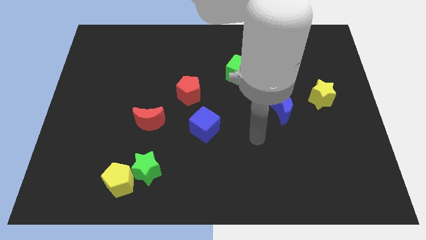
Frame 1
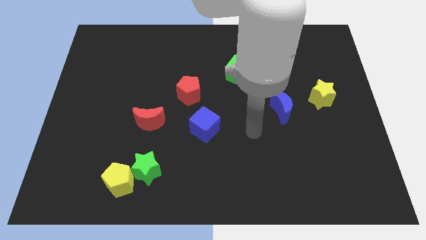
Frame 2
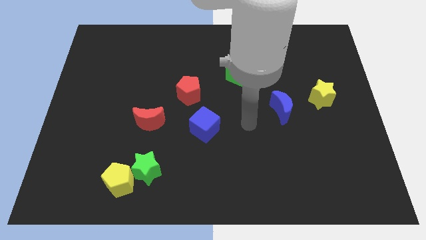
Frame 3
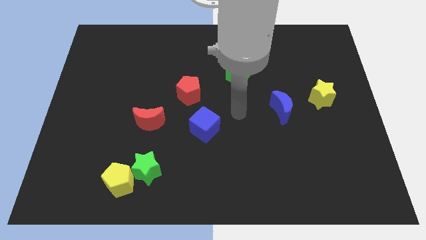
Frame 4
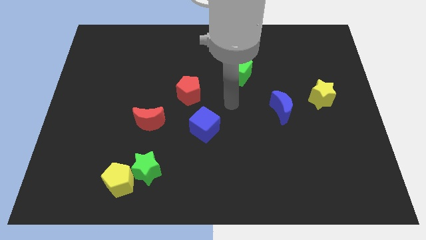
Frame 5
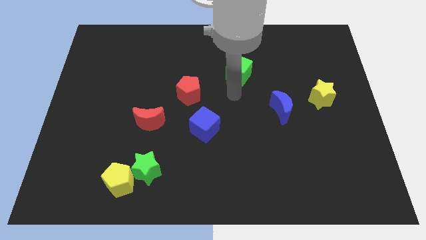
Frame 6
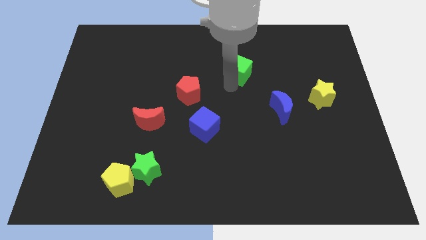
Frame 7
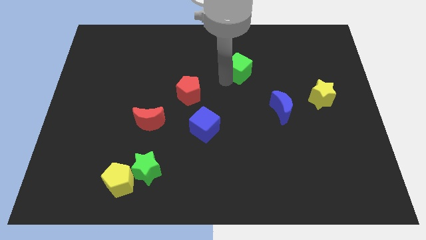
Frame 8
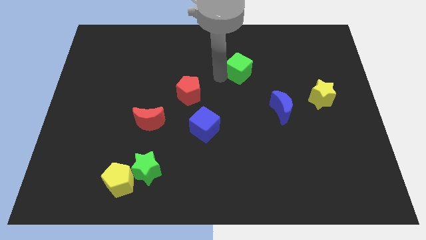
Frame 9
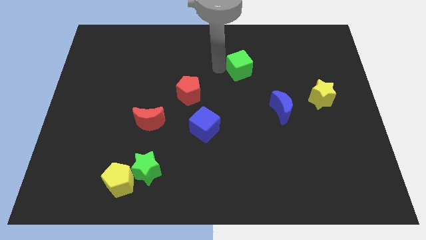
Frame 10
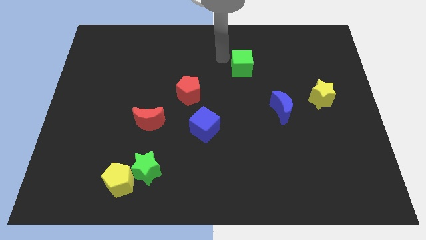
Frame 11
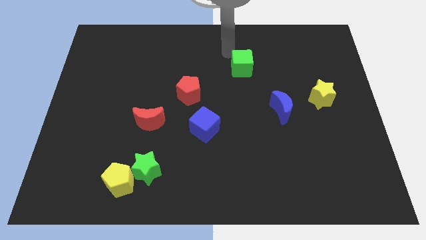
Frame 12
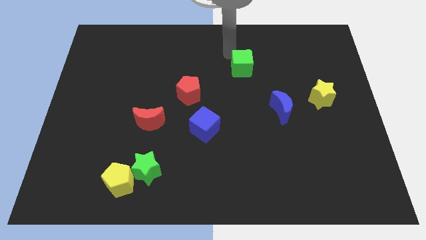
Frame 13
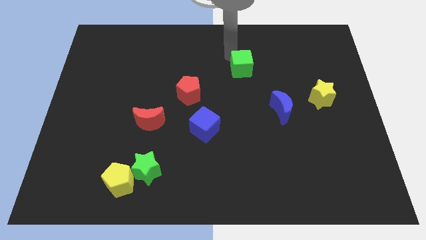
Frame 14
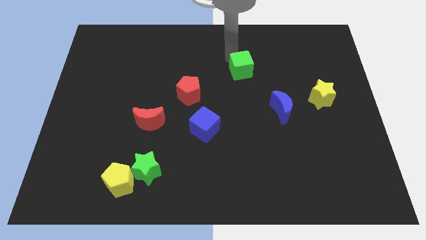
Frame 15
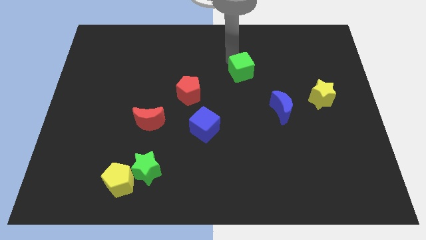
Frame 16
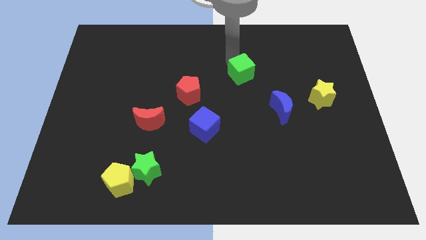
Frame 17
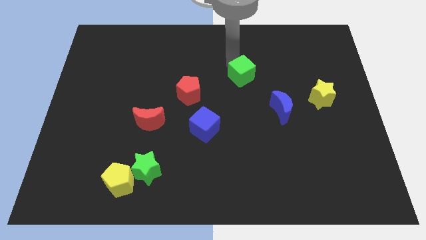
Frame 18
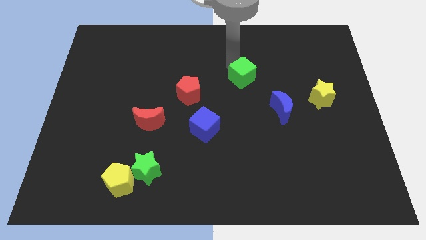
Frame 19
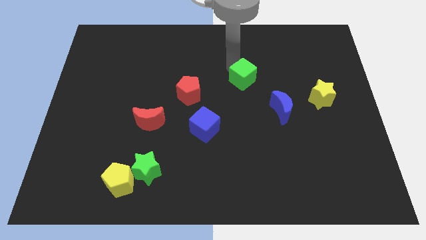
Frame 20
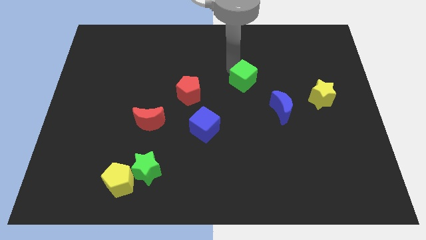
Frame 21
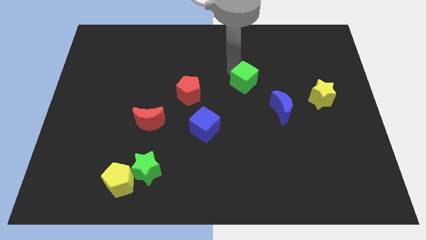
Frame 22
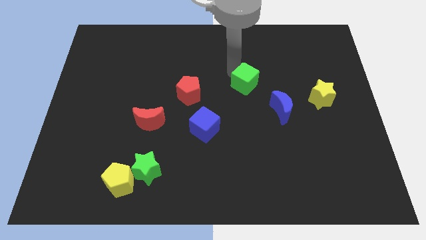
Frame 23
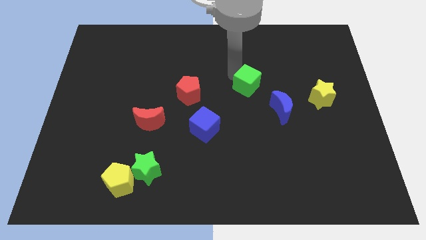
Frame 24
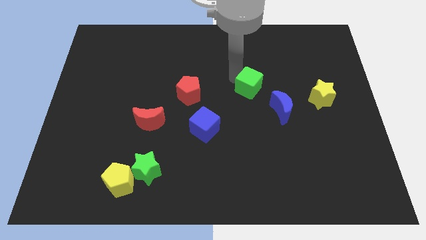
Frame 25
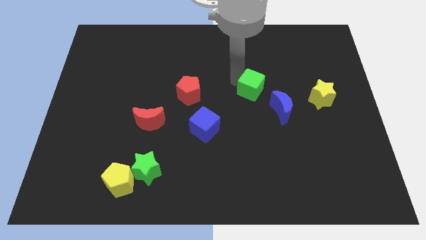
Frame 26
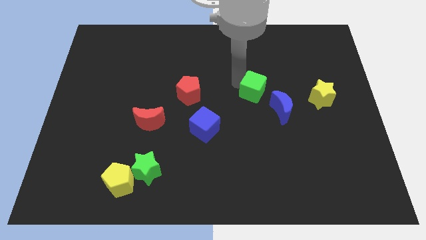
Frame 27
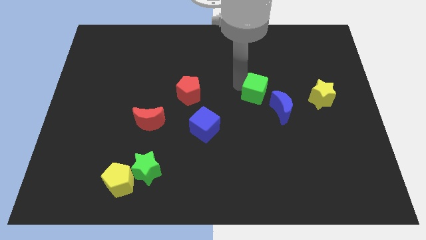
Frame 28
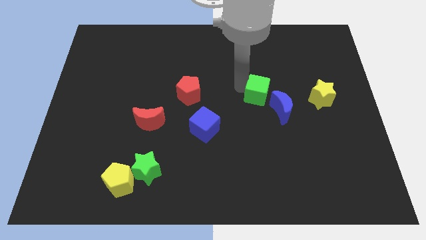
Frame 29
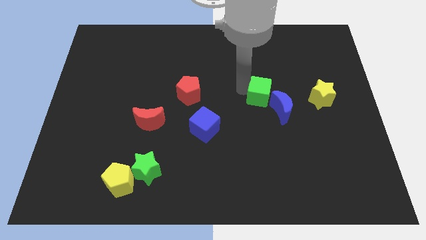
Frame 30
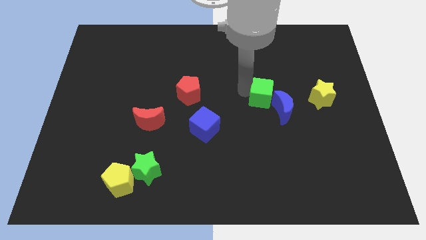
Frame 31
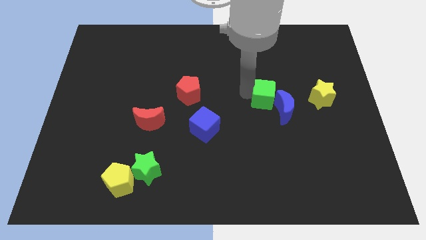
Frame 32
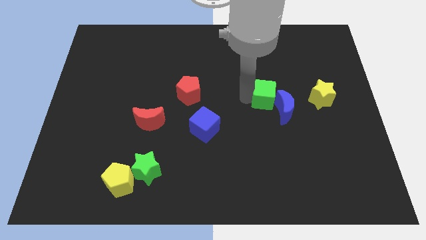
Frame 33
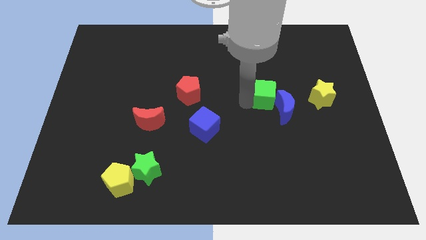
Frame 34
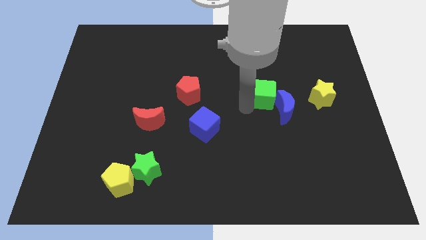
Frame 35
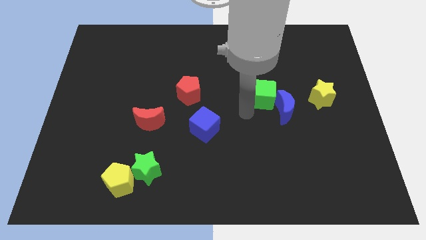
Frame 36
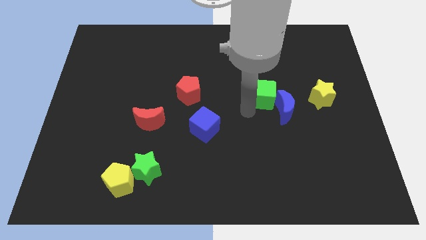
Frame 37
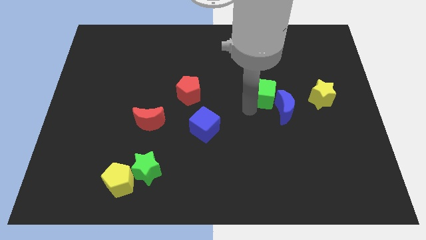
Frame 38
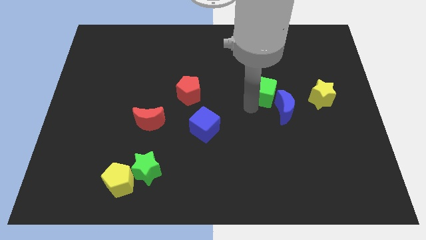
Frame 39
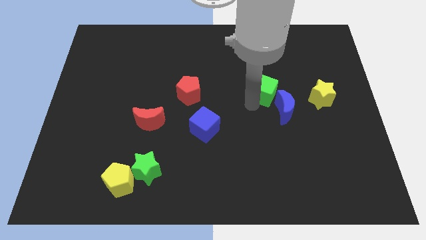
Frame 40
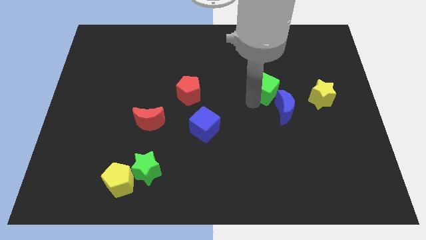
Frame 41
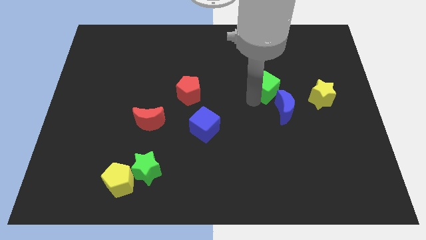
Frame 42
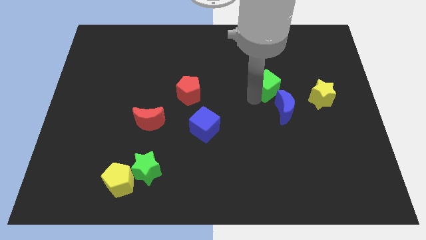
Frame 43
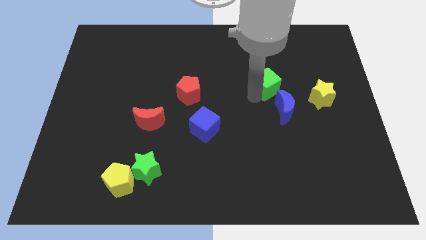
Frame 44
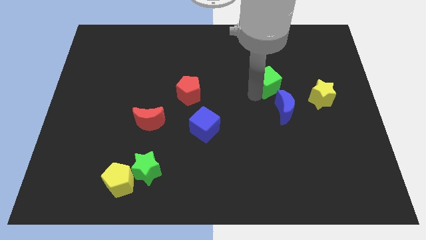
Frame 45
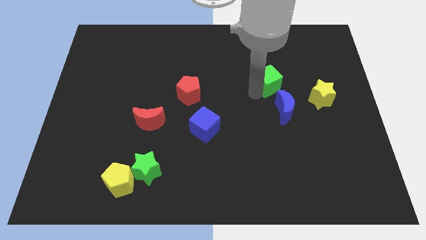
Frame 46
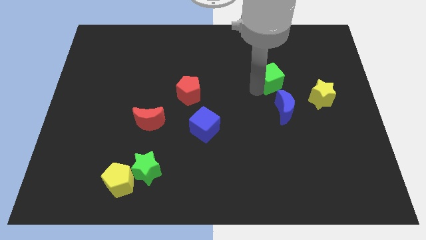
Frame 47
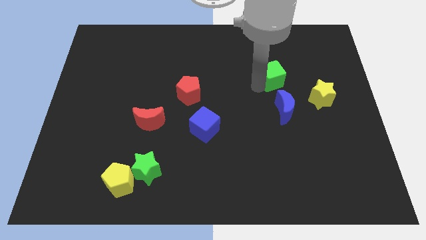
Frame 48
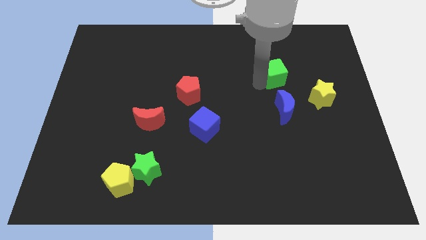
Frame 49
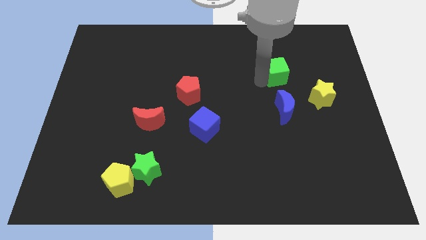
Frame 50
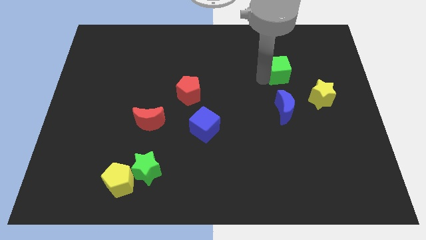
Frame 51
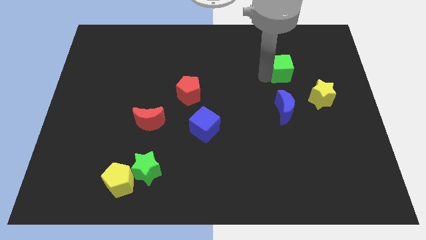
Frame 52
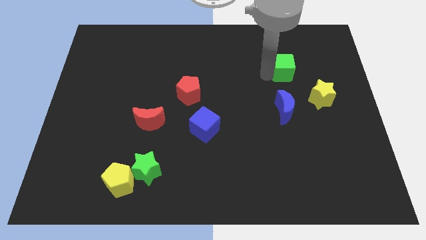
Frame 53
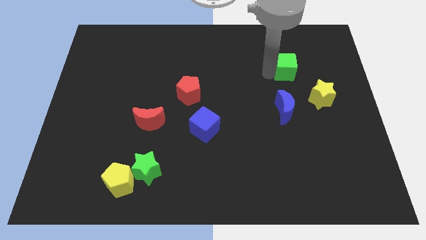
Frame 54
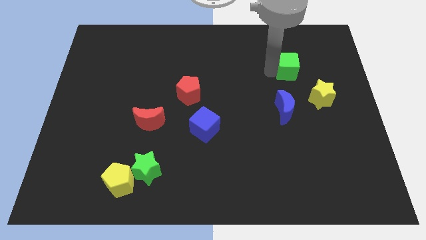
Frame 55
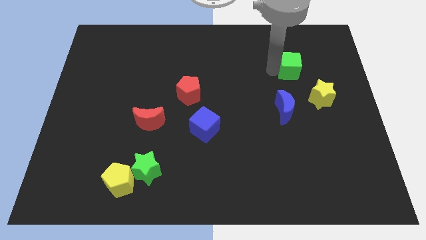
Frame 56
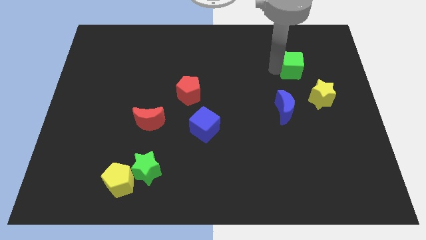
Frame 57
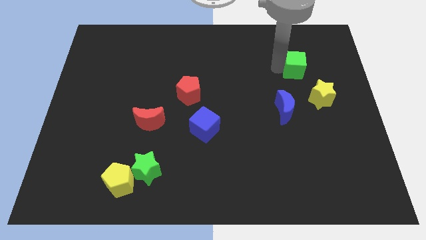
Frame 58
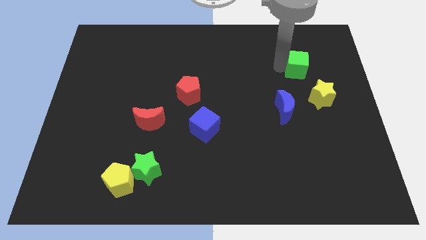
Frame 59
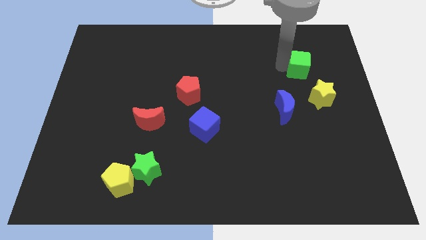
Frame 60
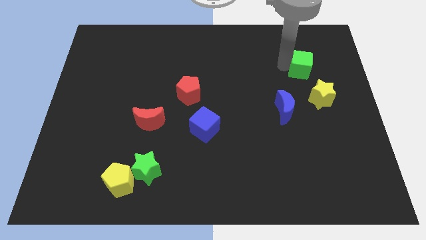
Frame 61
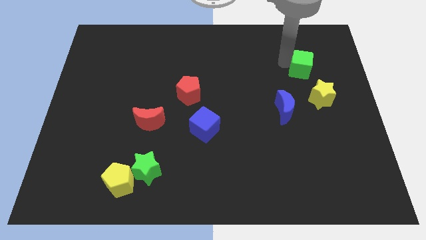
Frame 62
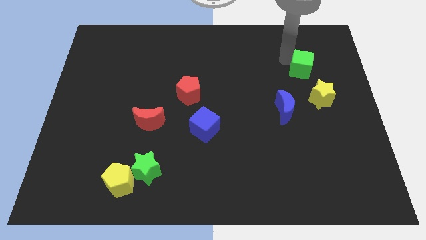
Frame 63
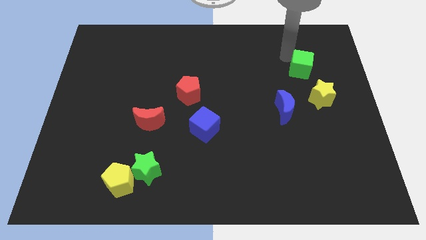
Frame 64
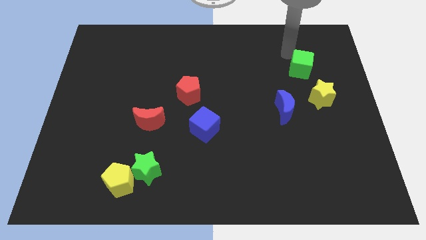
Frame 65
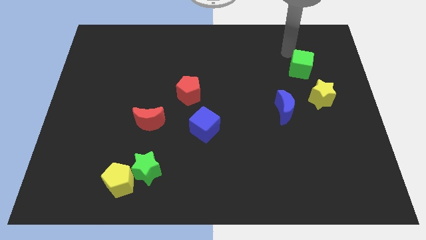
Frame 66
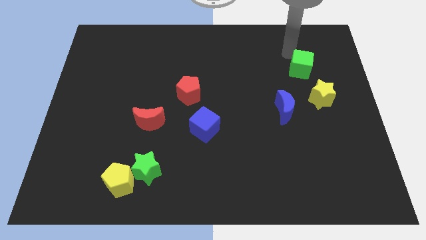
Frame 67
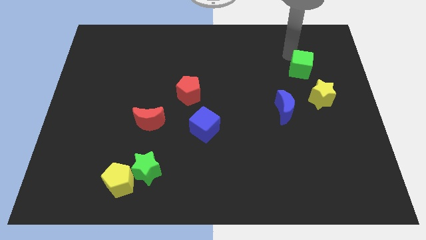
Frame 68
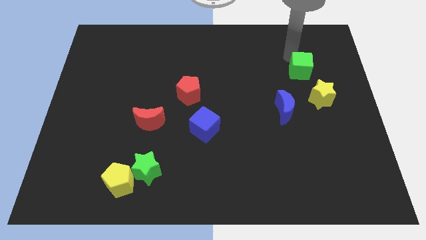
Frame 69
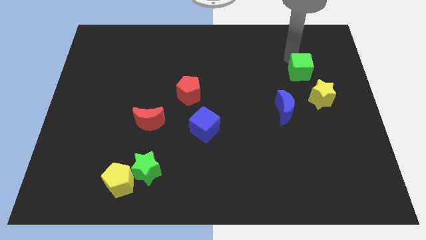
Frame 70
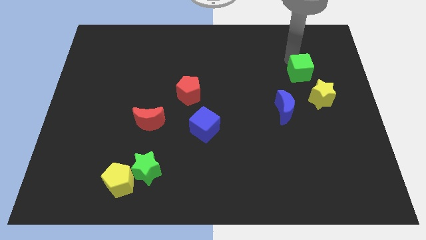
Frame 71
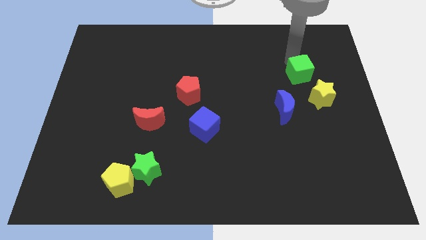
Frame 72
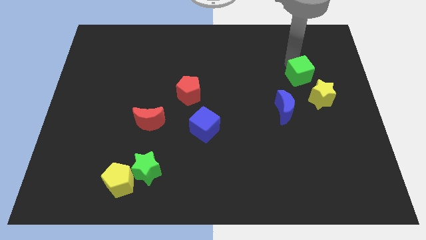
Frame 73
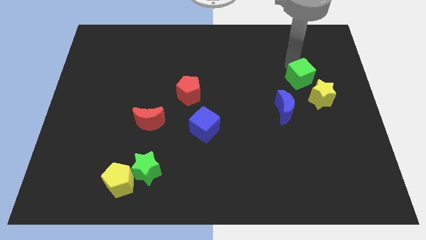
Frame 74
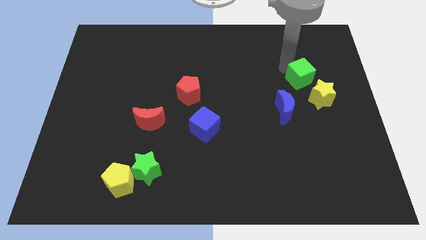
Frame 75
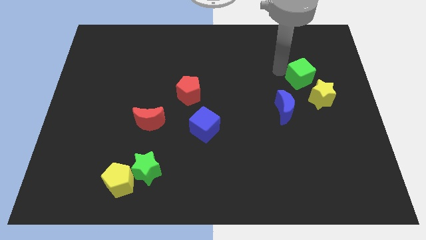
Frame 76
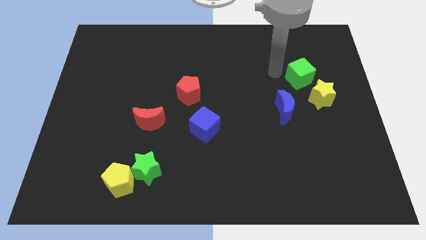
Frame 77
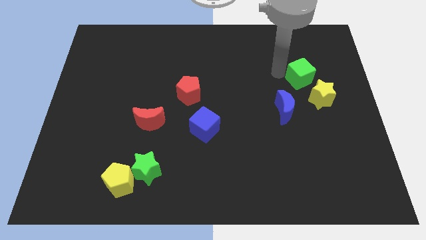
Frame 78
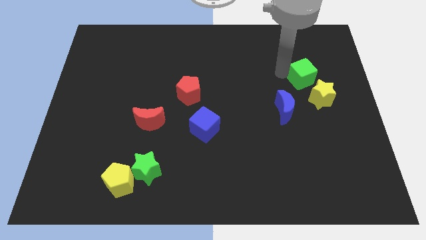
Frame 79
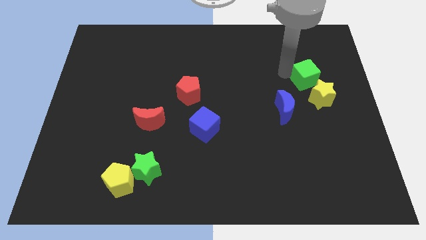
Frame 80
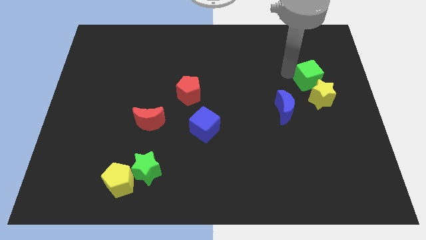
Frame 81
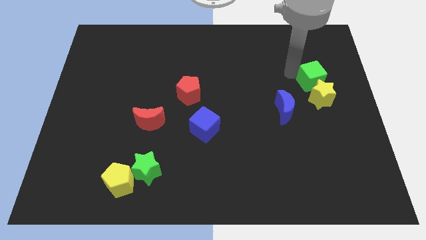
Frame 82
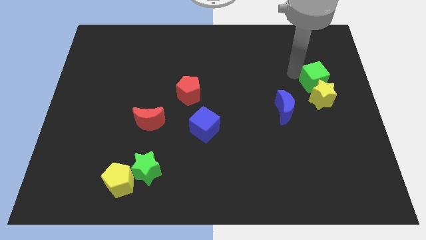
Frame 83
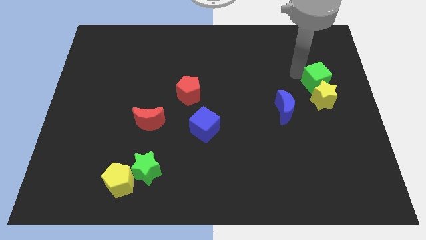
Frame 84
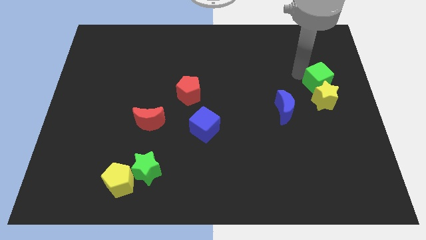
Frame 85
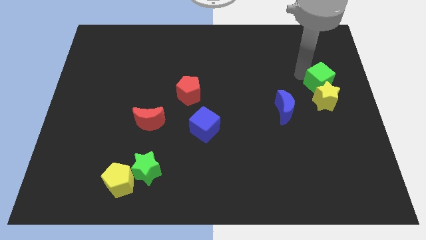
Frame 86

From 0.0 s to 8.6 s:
move the green cube to the center right
